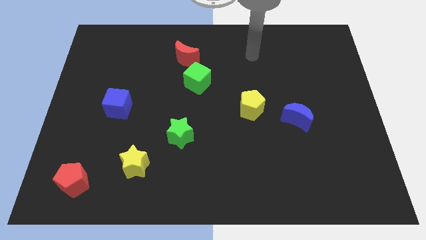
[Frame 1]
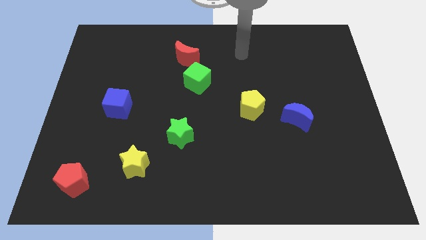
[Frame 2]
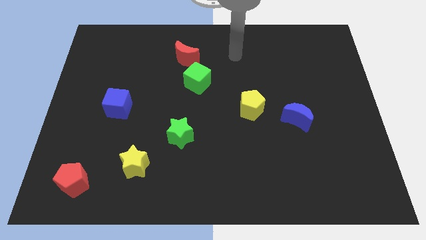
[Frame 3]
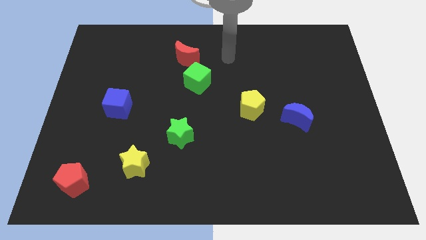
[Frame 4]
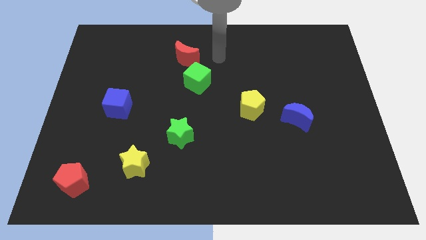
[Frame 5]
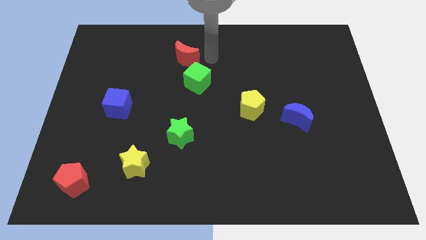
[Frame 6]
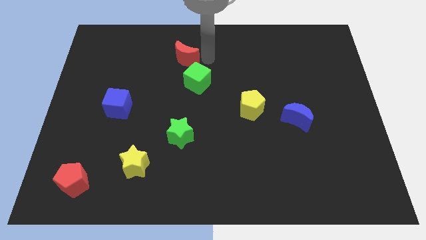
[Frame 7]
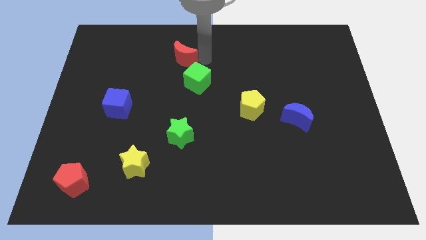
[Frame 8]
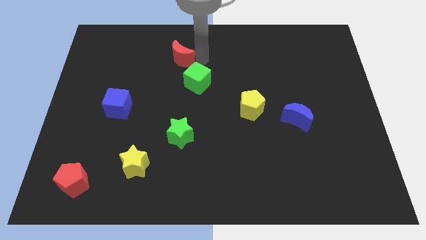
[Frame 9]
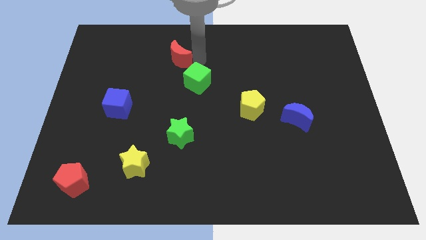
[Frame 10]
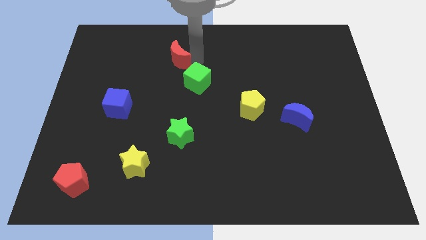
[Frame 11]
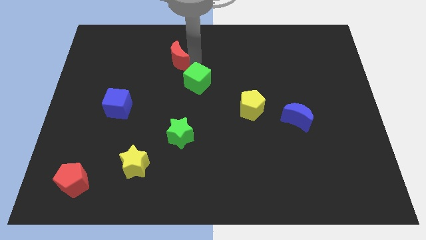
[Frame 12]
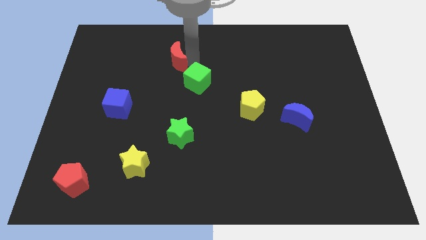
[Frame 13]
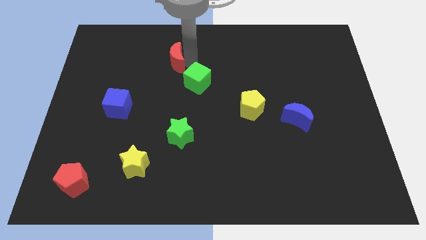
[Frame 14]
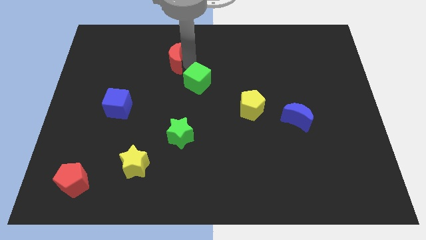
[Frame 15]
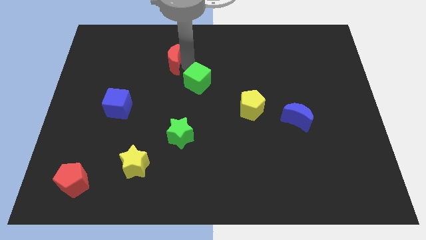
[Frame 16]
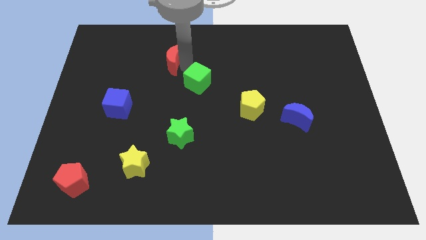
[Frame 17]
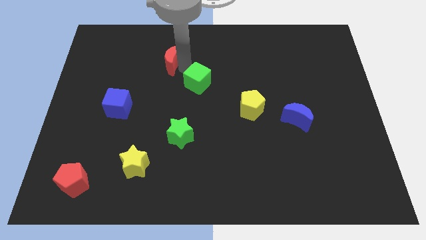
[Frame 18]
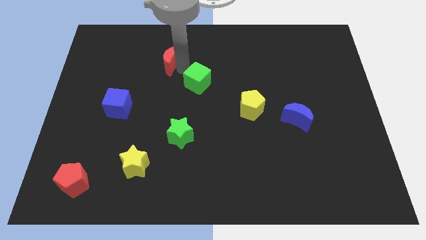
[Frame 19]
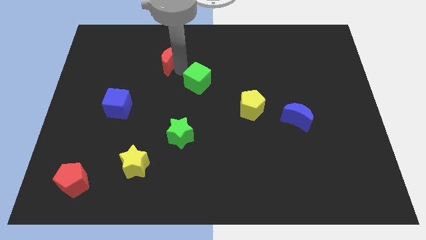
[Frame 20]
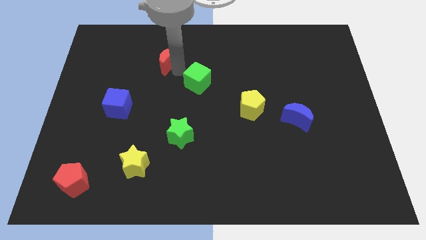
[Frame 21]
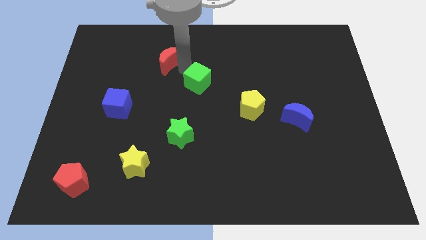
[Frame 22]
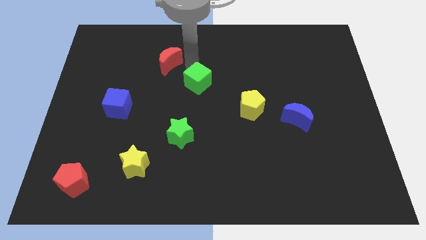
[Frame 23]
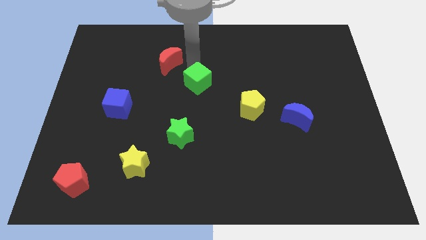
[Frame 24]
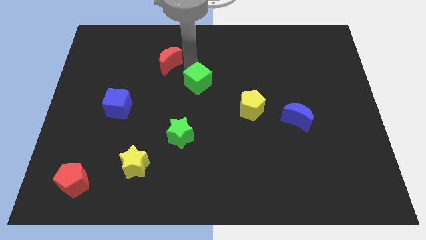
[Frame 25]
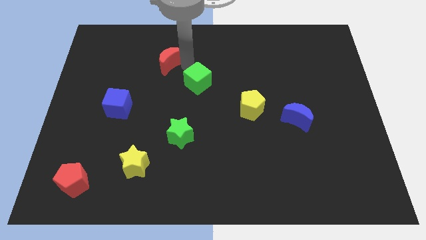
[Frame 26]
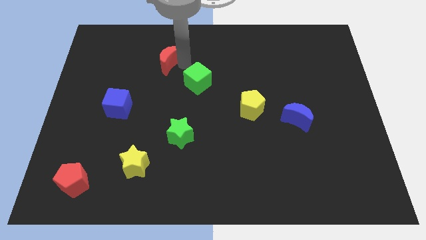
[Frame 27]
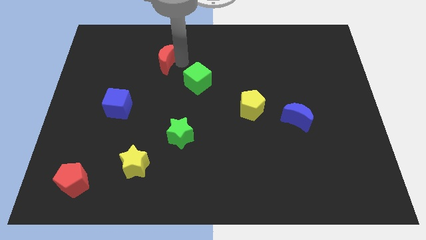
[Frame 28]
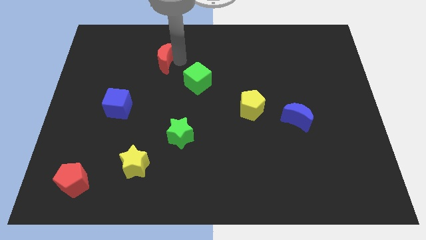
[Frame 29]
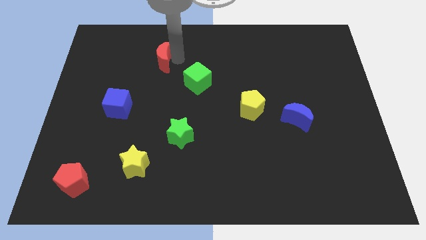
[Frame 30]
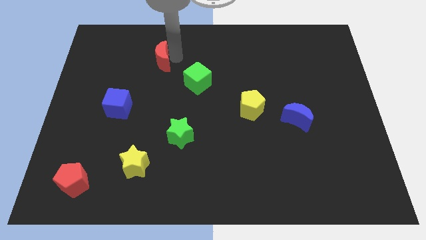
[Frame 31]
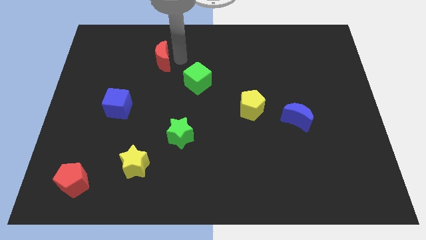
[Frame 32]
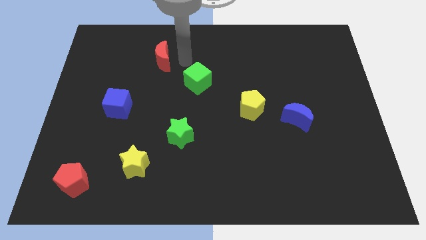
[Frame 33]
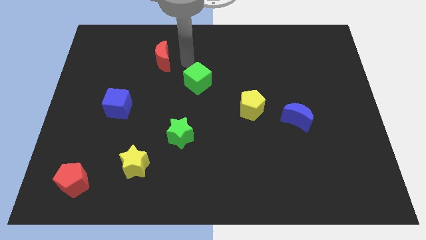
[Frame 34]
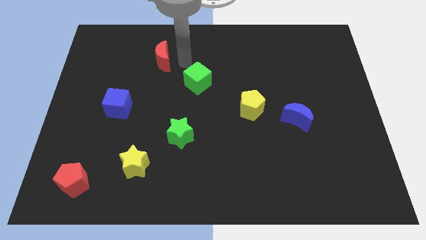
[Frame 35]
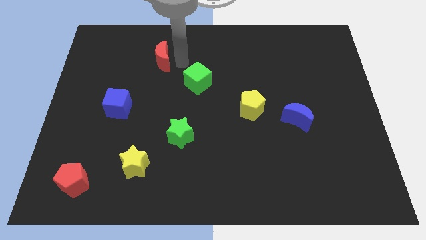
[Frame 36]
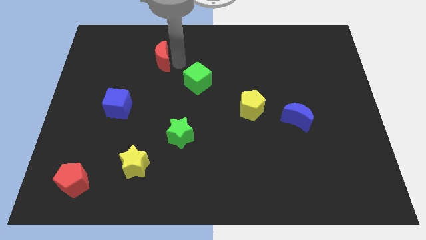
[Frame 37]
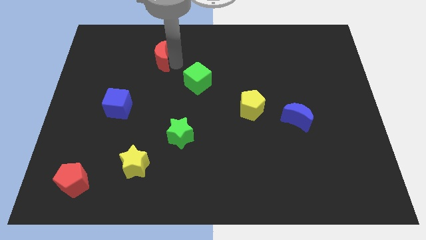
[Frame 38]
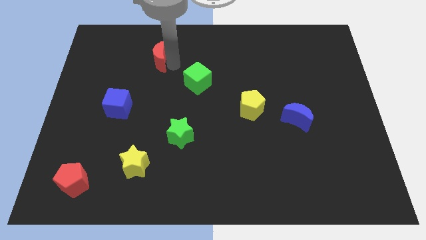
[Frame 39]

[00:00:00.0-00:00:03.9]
move the red moon left a bit

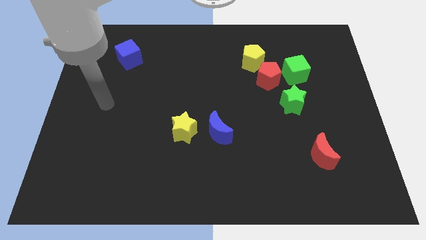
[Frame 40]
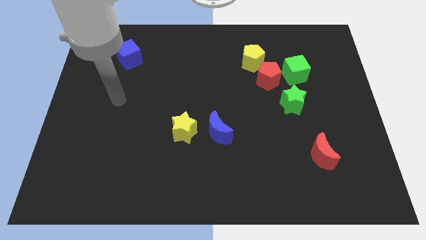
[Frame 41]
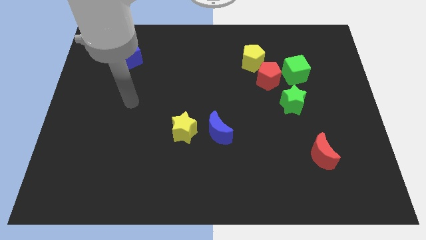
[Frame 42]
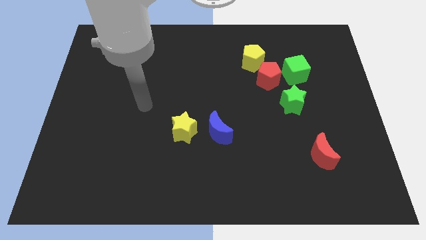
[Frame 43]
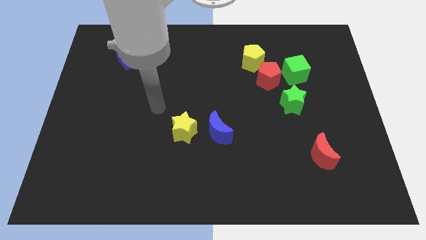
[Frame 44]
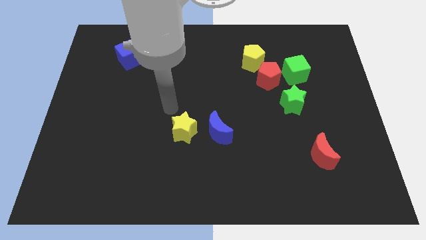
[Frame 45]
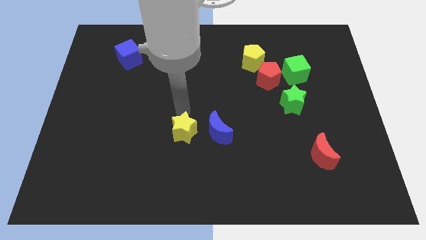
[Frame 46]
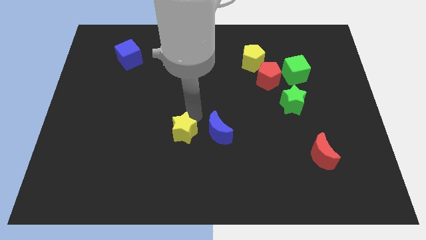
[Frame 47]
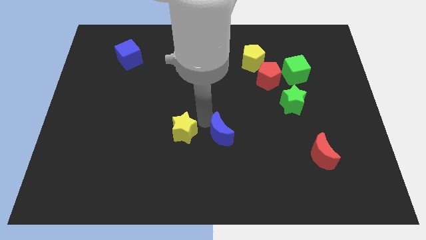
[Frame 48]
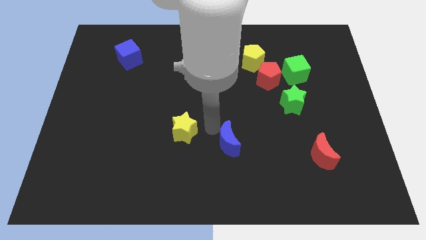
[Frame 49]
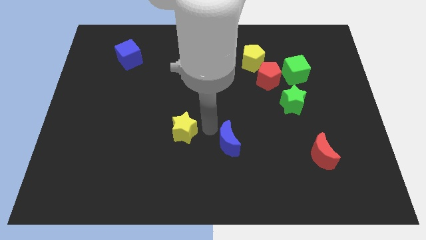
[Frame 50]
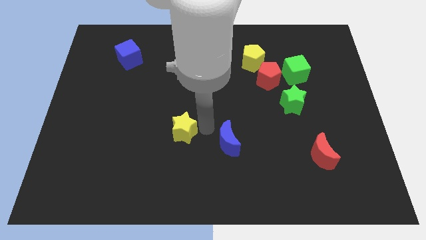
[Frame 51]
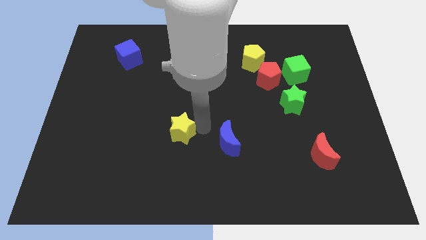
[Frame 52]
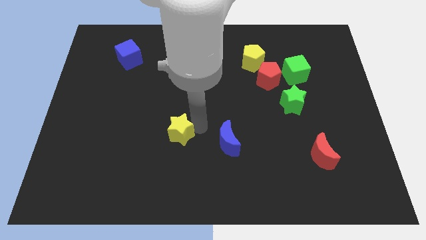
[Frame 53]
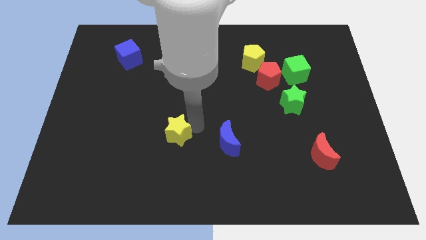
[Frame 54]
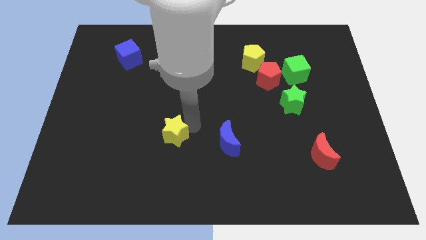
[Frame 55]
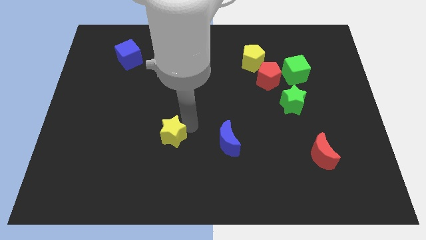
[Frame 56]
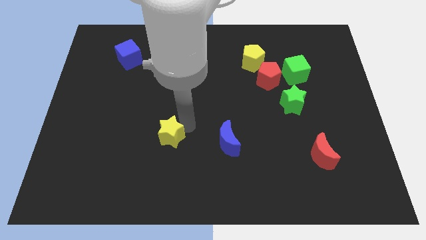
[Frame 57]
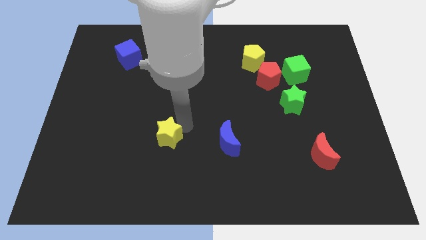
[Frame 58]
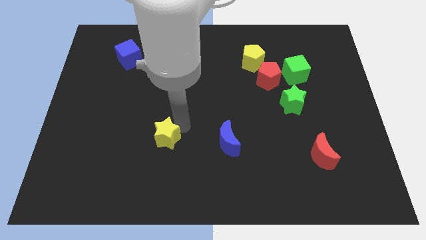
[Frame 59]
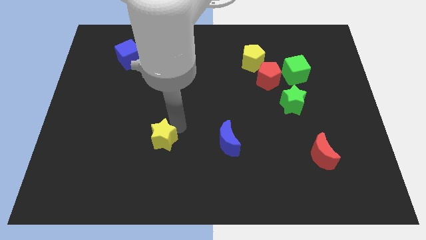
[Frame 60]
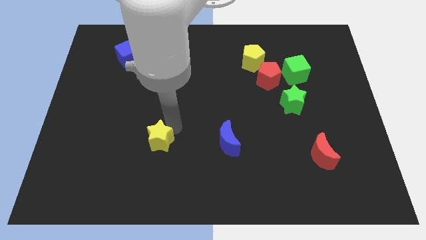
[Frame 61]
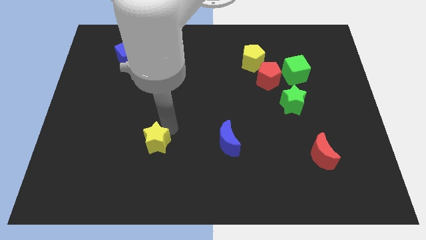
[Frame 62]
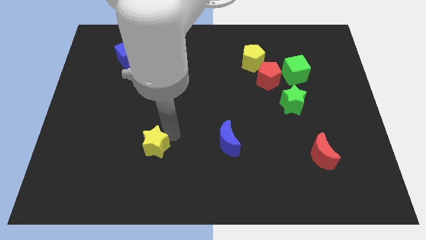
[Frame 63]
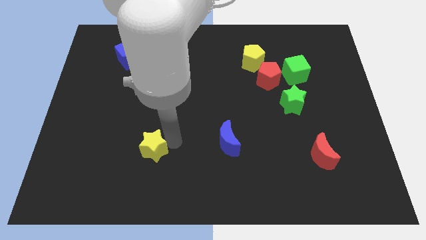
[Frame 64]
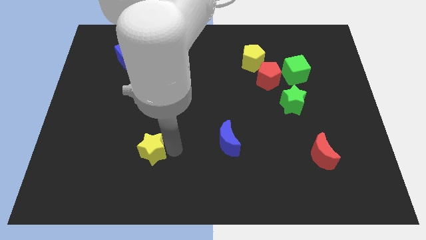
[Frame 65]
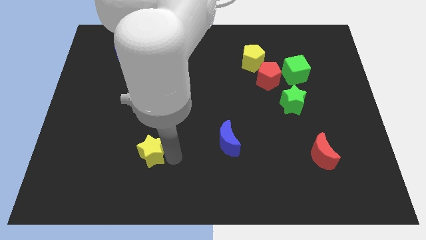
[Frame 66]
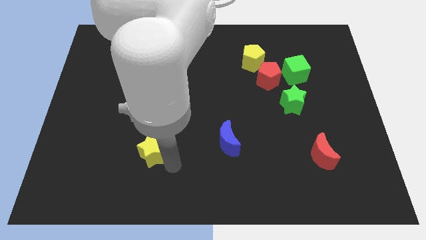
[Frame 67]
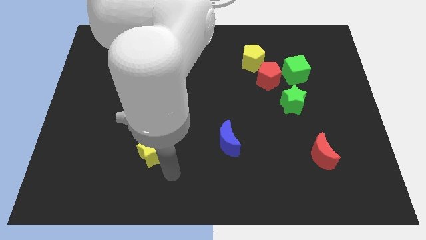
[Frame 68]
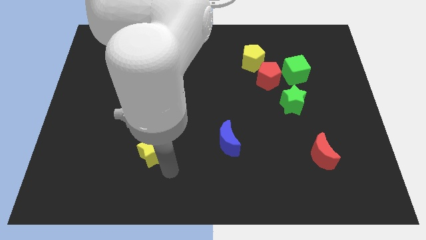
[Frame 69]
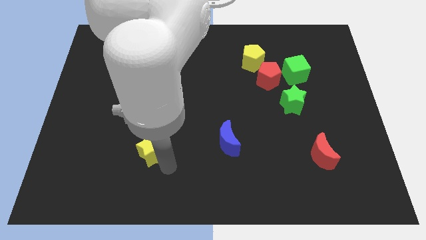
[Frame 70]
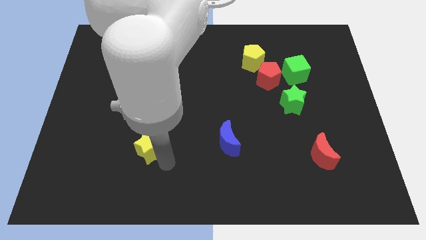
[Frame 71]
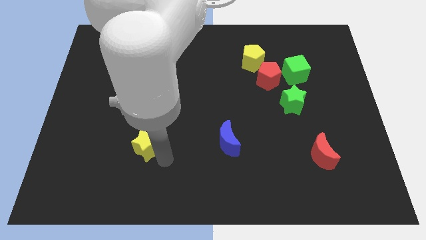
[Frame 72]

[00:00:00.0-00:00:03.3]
move the yellow star somewhat to the left

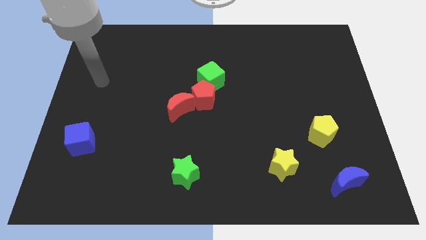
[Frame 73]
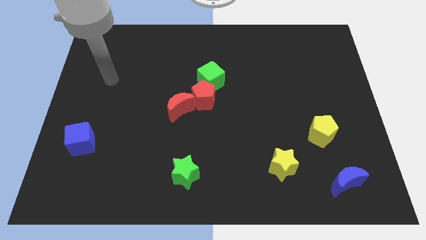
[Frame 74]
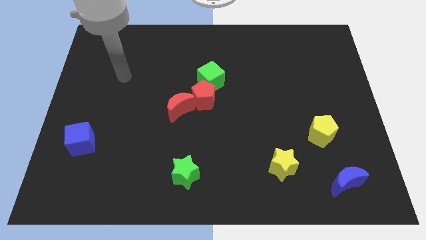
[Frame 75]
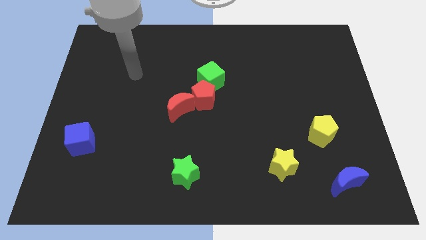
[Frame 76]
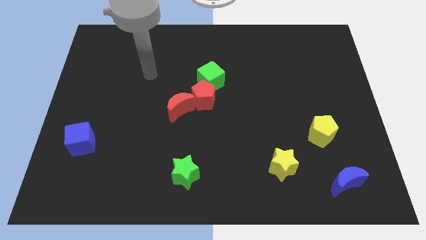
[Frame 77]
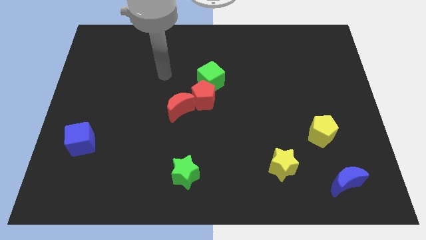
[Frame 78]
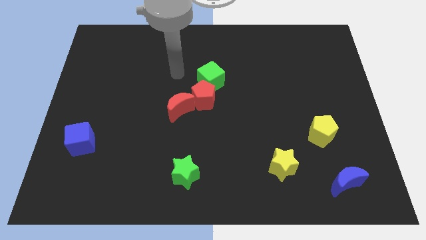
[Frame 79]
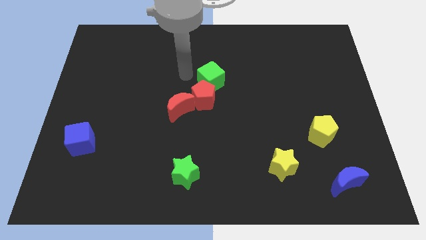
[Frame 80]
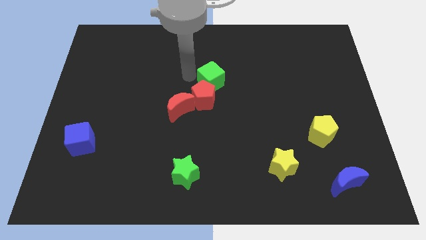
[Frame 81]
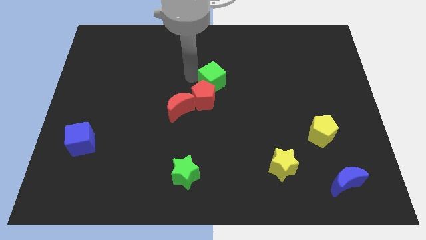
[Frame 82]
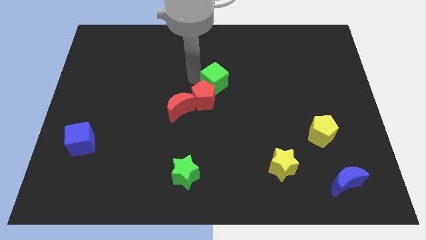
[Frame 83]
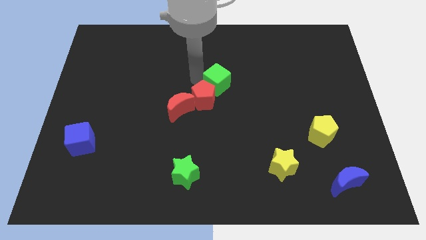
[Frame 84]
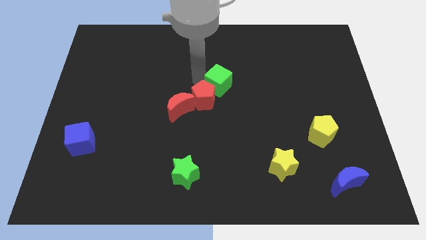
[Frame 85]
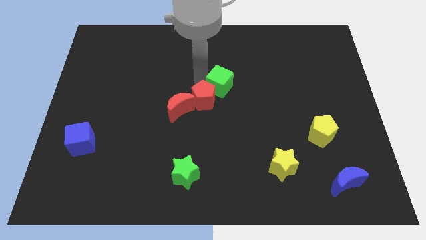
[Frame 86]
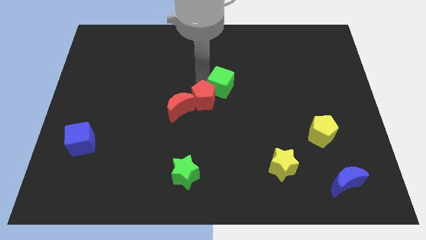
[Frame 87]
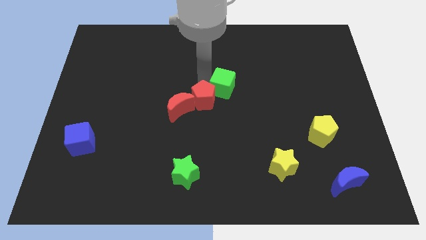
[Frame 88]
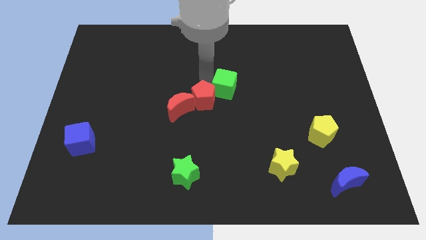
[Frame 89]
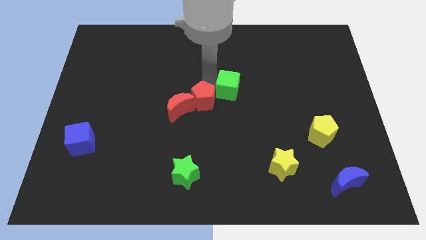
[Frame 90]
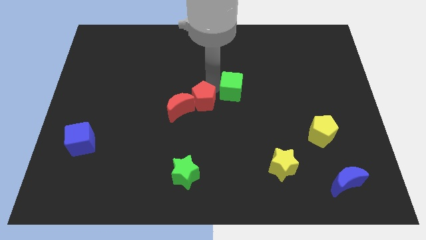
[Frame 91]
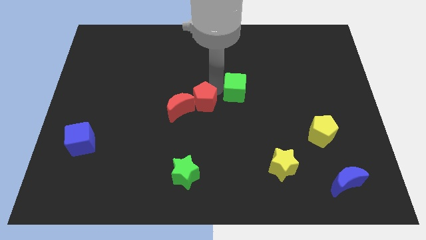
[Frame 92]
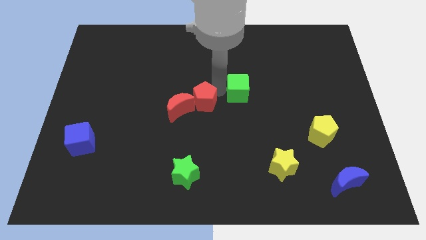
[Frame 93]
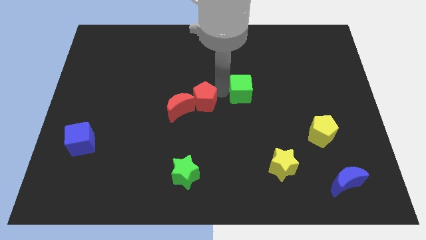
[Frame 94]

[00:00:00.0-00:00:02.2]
slide the green cube right a little bit
